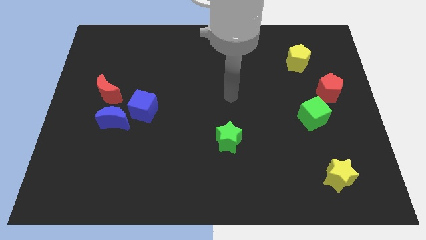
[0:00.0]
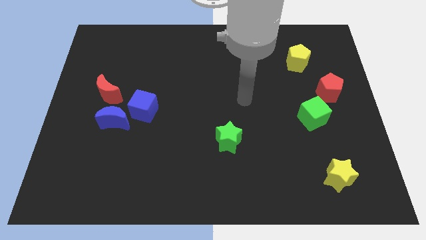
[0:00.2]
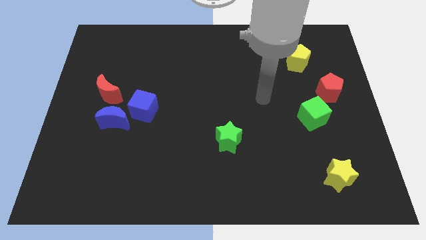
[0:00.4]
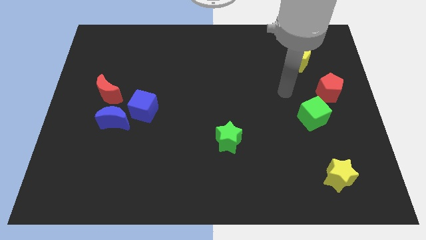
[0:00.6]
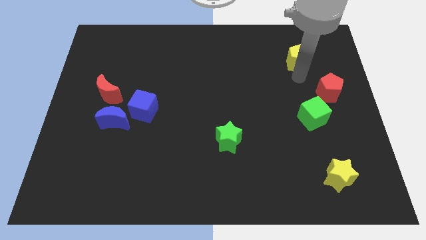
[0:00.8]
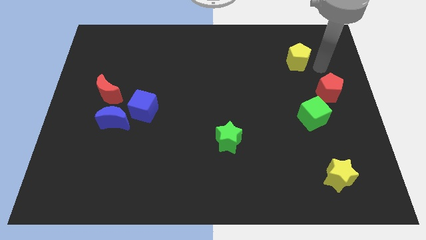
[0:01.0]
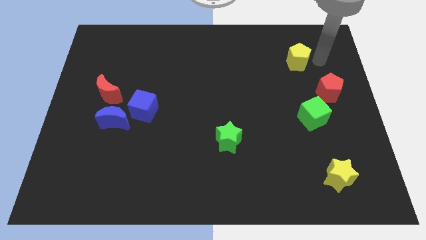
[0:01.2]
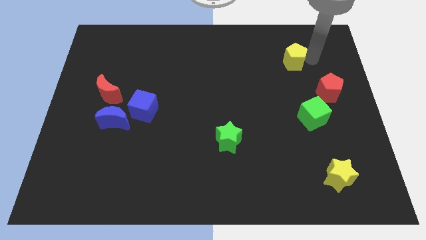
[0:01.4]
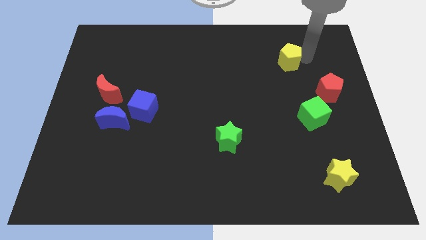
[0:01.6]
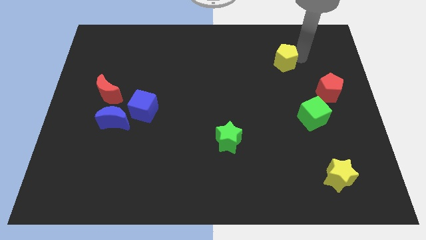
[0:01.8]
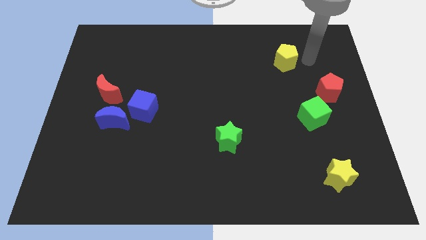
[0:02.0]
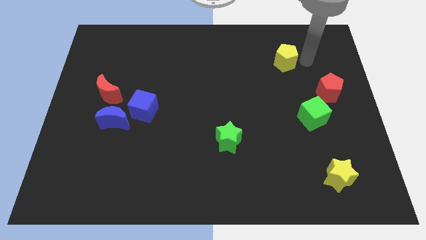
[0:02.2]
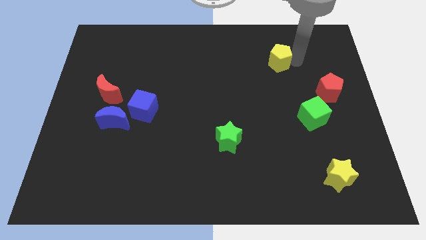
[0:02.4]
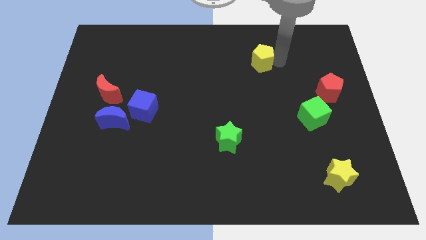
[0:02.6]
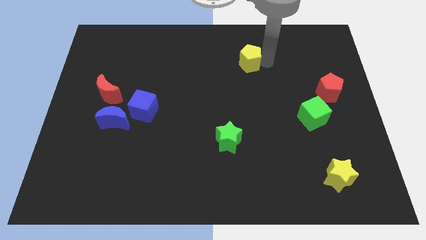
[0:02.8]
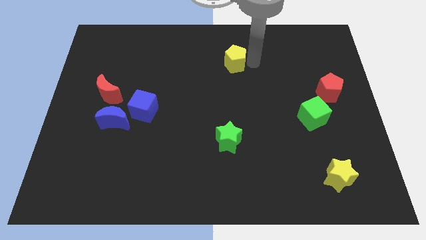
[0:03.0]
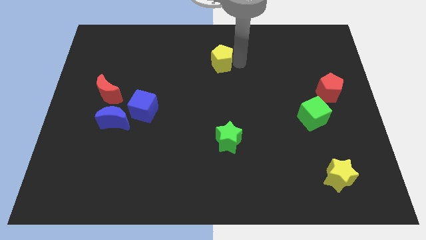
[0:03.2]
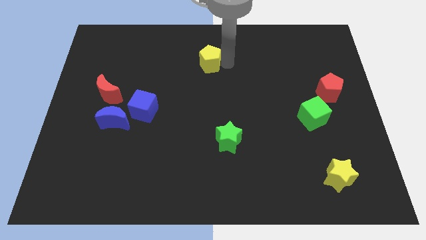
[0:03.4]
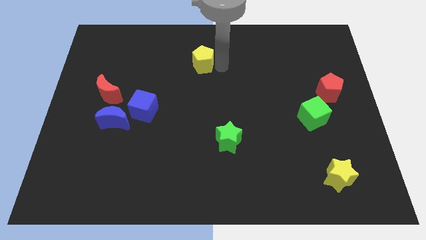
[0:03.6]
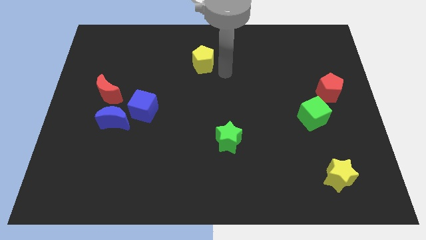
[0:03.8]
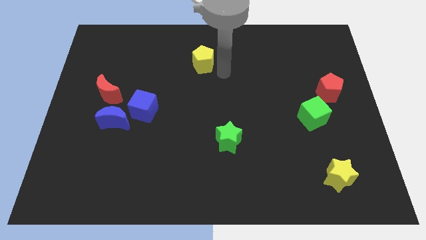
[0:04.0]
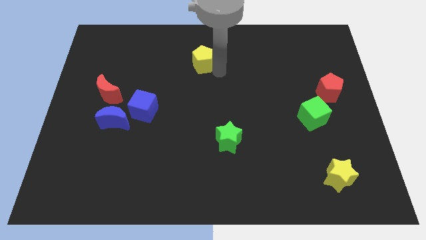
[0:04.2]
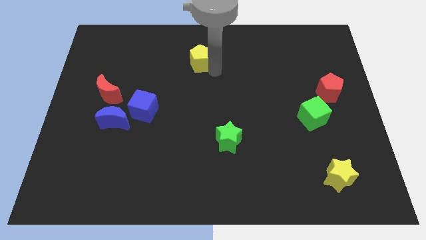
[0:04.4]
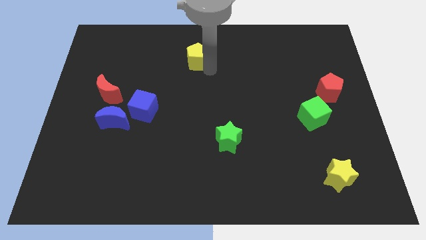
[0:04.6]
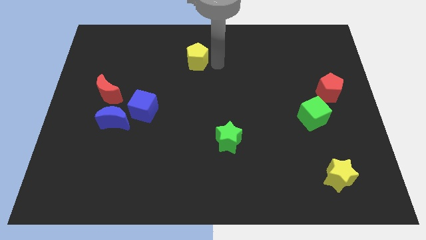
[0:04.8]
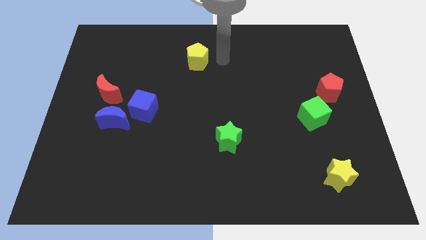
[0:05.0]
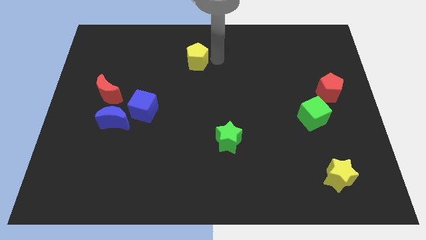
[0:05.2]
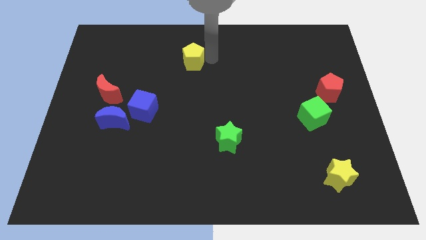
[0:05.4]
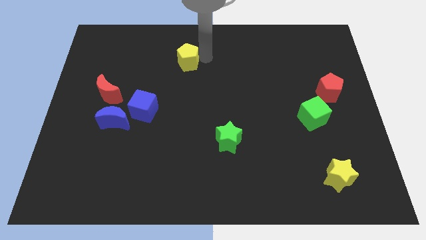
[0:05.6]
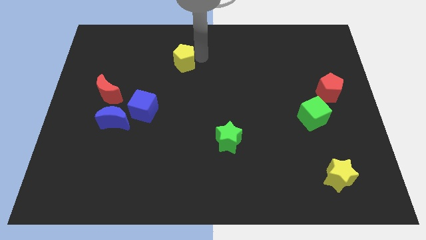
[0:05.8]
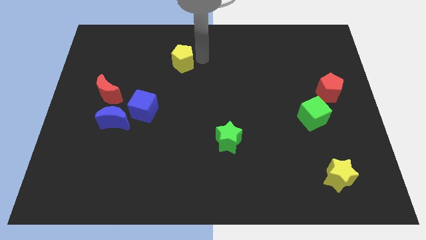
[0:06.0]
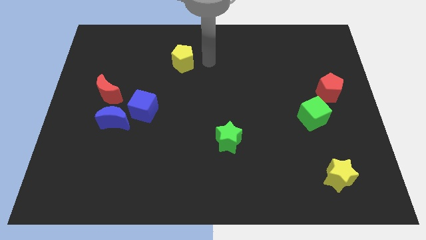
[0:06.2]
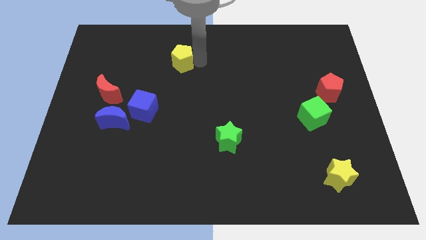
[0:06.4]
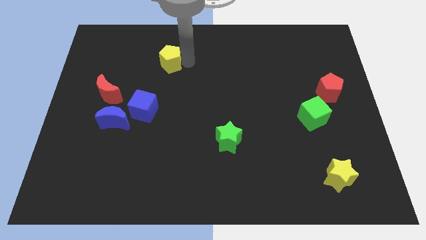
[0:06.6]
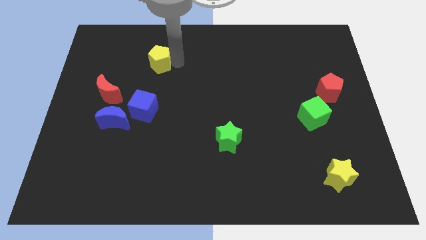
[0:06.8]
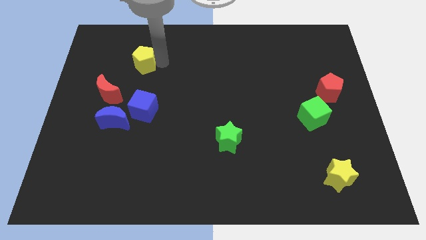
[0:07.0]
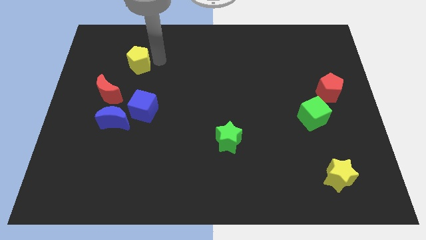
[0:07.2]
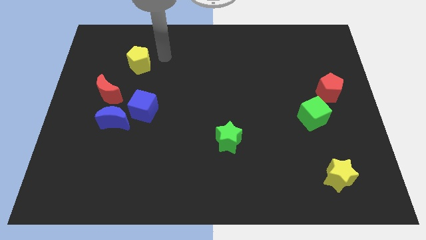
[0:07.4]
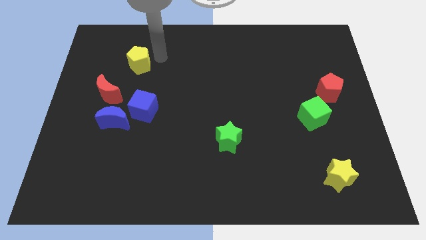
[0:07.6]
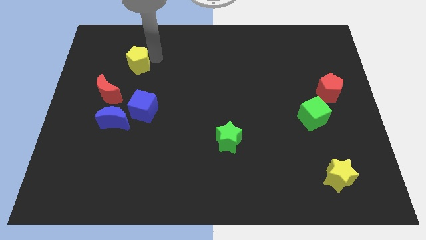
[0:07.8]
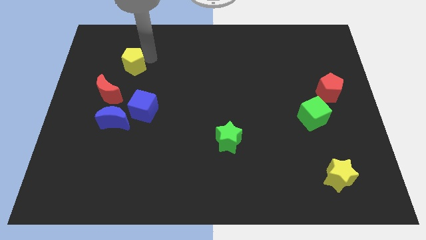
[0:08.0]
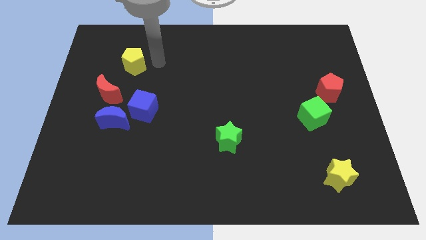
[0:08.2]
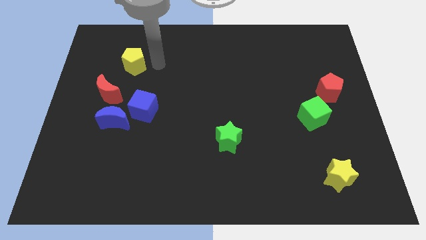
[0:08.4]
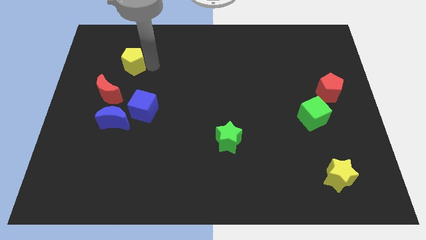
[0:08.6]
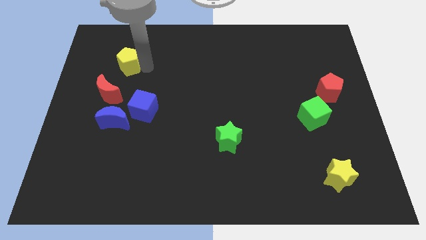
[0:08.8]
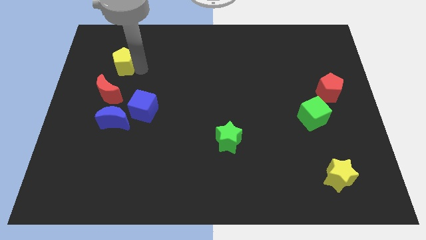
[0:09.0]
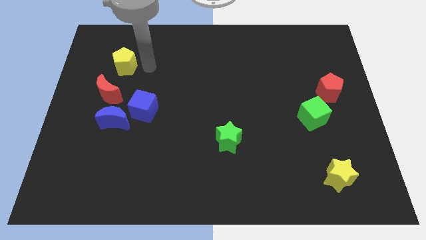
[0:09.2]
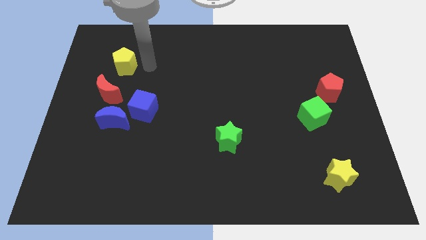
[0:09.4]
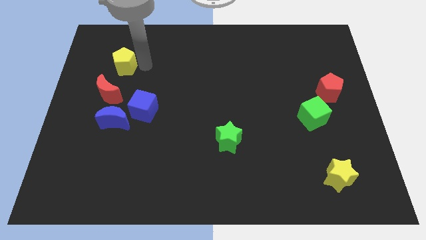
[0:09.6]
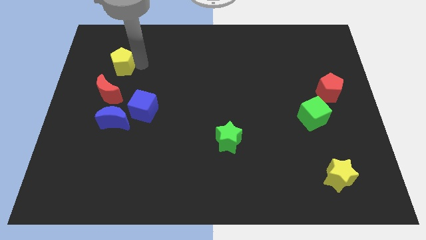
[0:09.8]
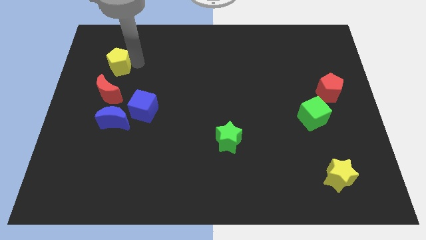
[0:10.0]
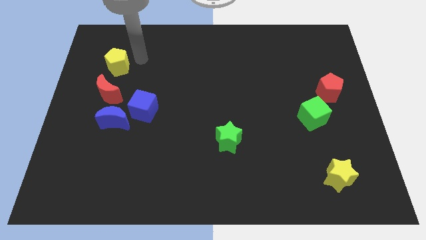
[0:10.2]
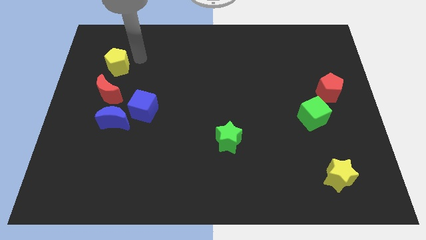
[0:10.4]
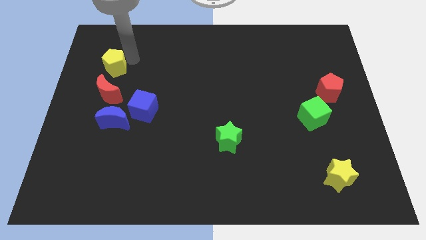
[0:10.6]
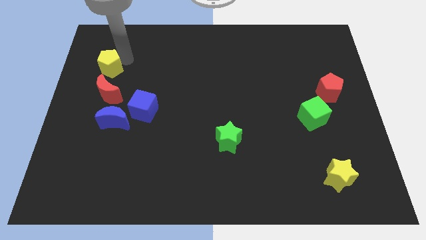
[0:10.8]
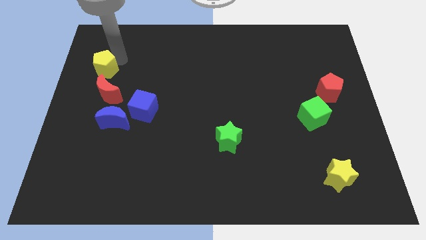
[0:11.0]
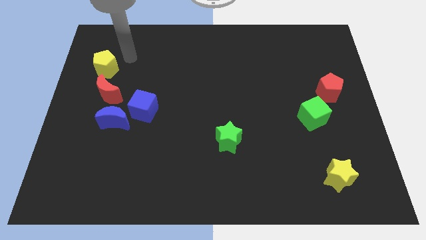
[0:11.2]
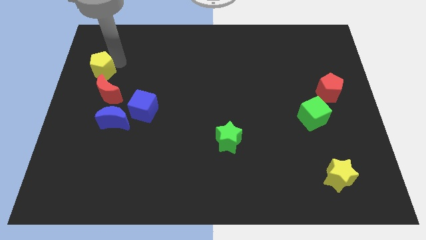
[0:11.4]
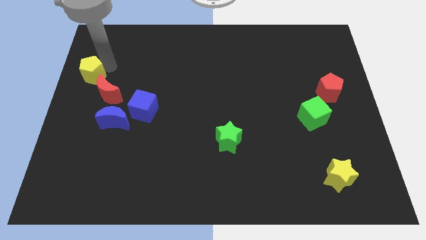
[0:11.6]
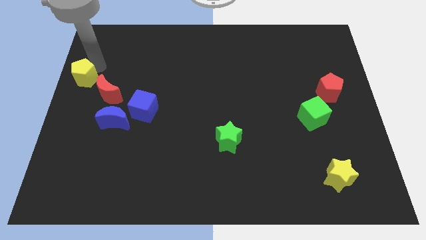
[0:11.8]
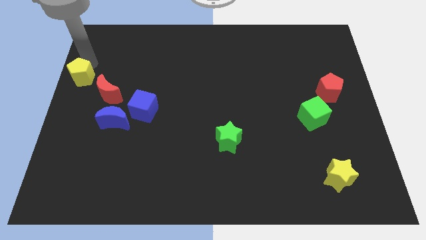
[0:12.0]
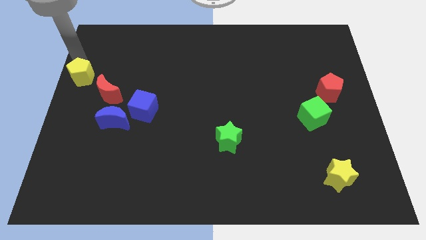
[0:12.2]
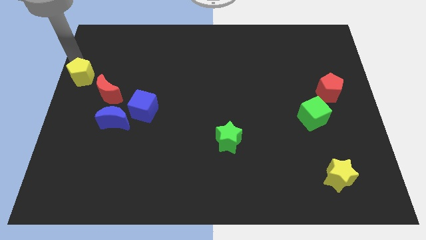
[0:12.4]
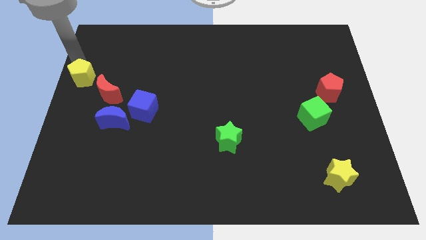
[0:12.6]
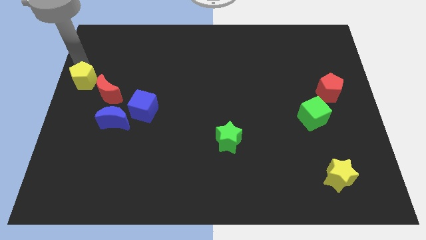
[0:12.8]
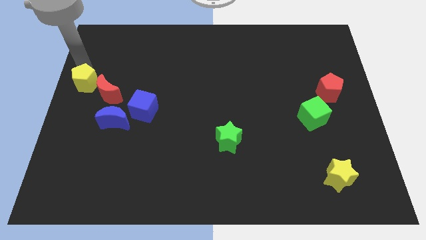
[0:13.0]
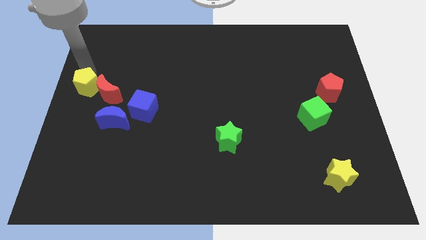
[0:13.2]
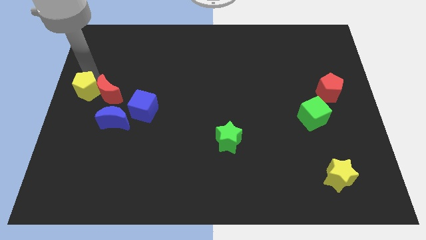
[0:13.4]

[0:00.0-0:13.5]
move the yellow pentagon to the top left side of the blue moon
